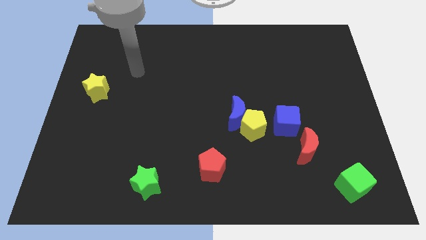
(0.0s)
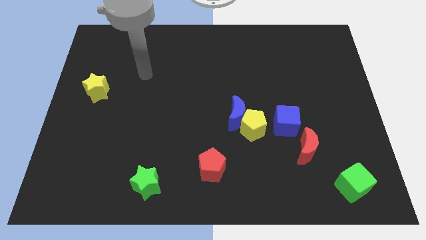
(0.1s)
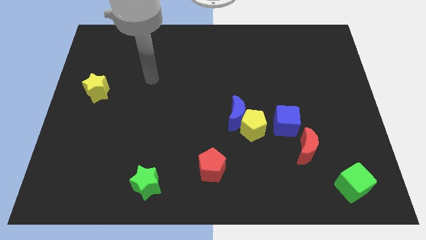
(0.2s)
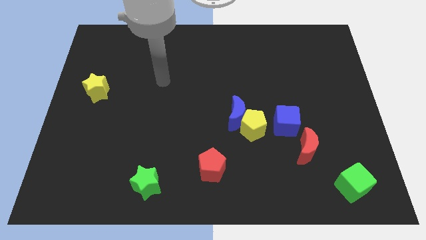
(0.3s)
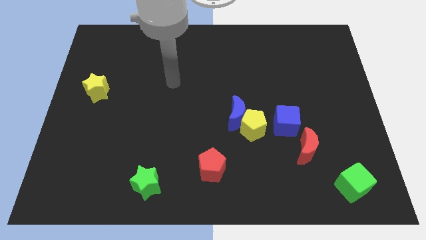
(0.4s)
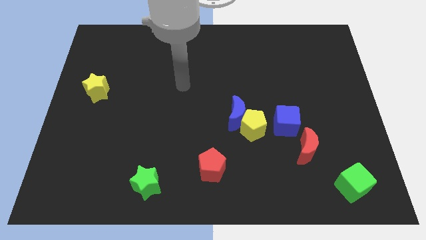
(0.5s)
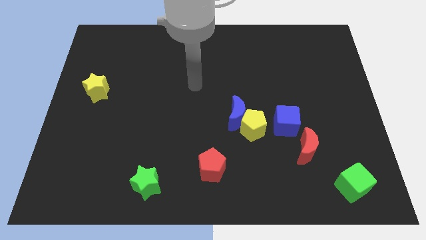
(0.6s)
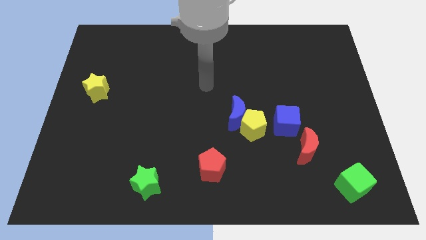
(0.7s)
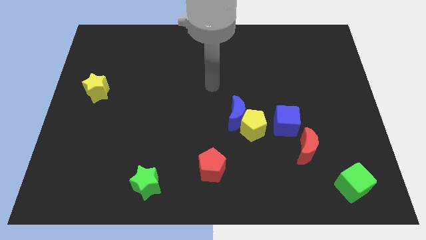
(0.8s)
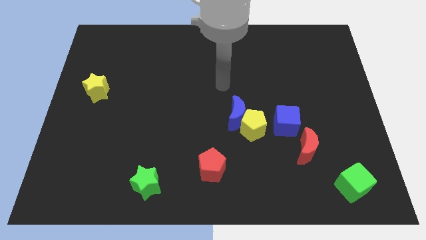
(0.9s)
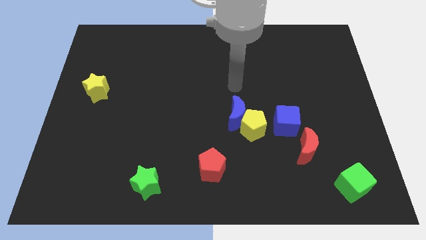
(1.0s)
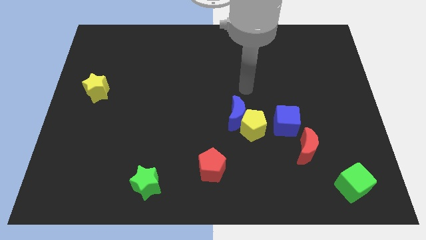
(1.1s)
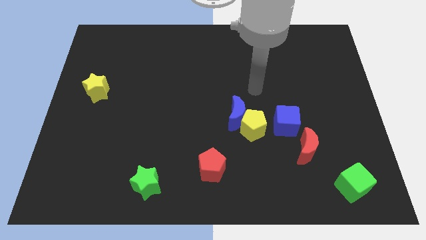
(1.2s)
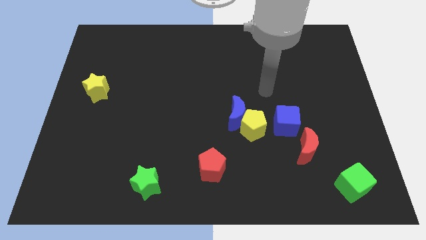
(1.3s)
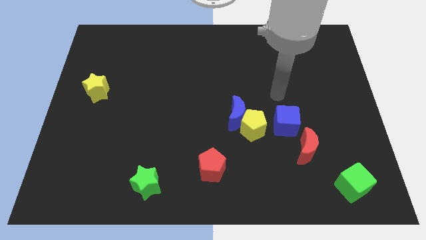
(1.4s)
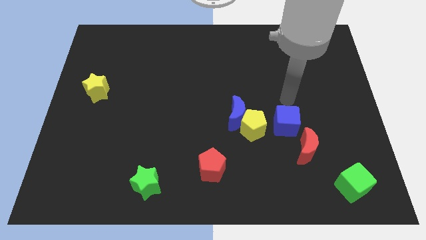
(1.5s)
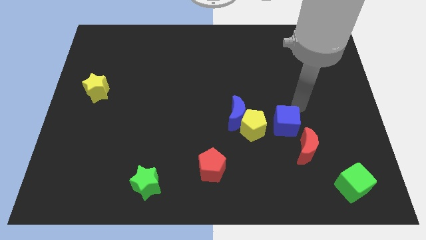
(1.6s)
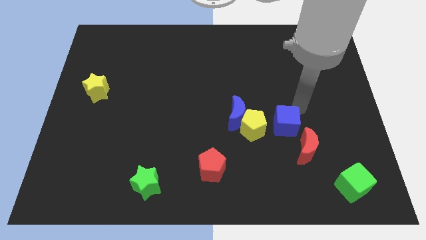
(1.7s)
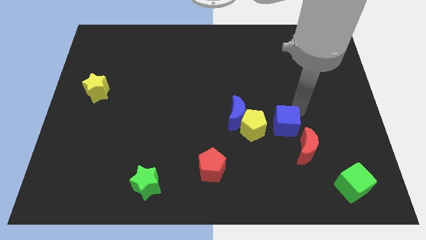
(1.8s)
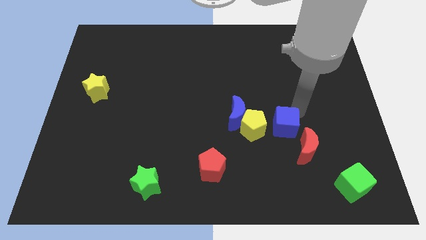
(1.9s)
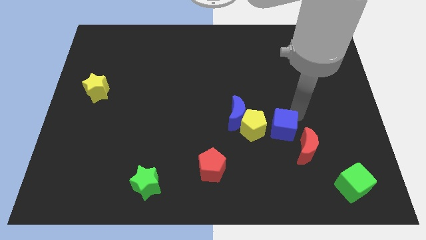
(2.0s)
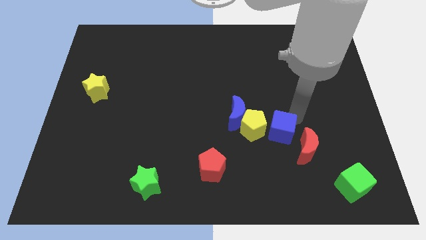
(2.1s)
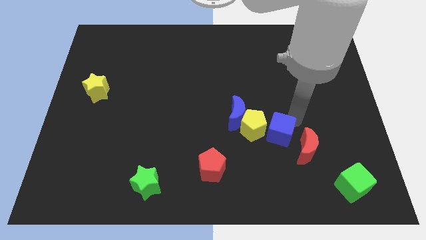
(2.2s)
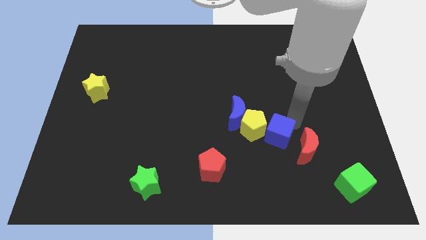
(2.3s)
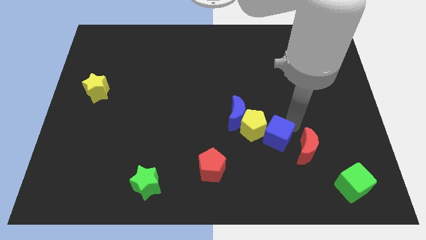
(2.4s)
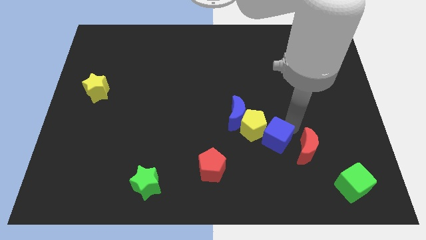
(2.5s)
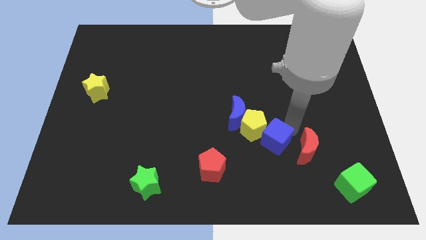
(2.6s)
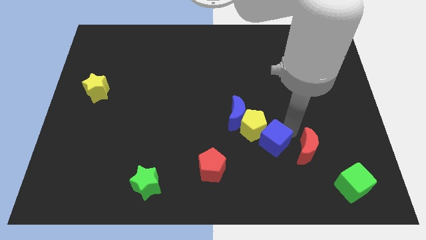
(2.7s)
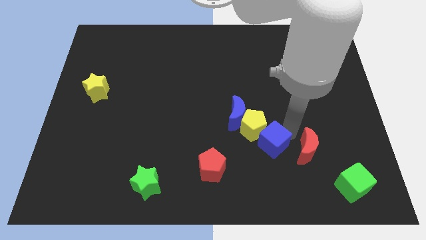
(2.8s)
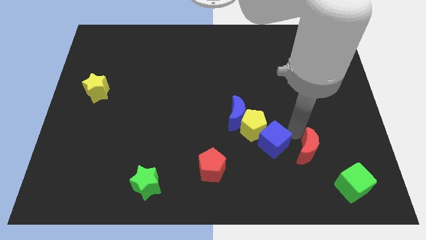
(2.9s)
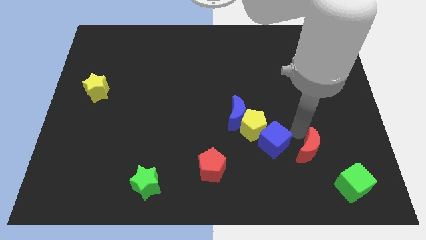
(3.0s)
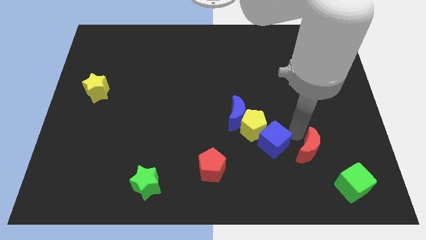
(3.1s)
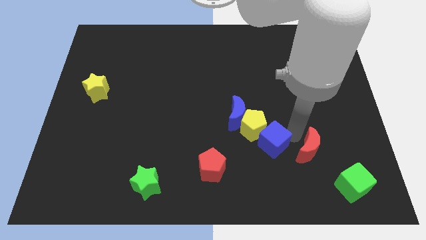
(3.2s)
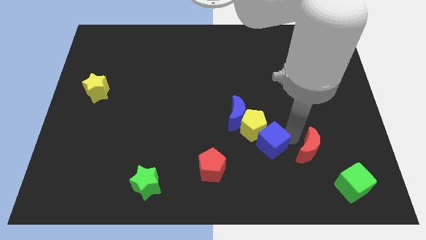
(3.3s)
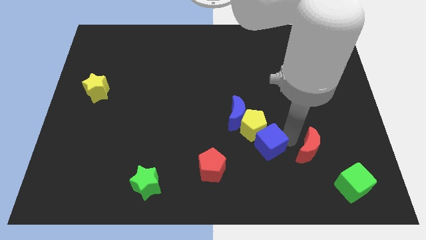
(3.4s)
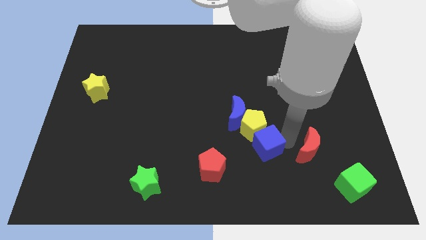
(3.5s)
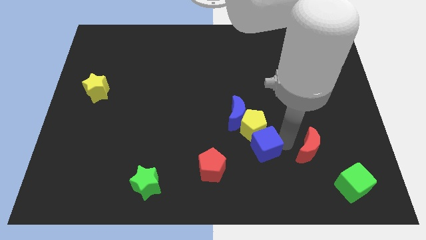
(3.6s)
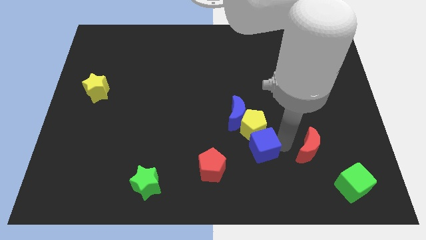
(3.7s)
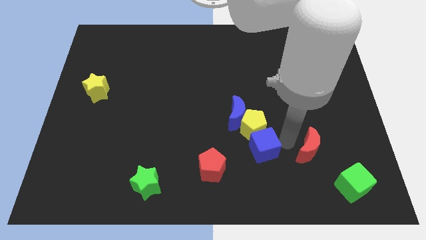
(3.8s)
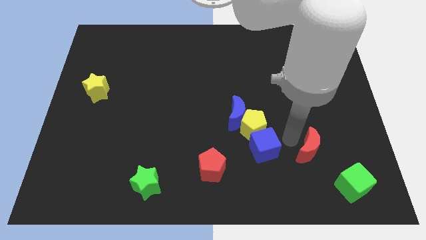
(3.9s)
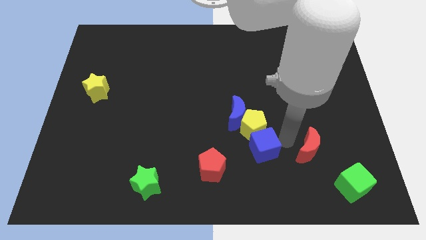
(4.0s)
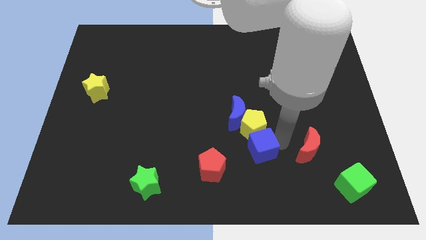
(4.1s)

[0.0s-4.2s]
push the blue cube to the bottom left side of the yellow pentagon

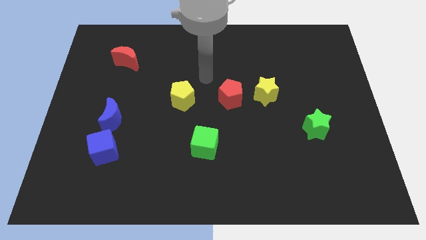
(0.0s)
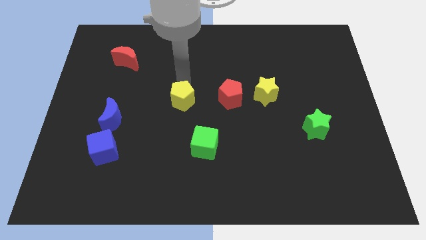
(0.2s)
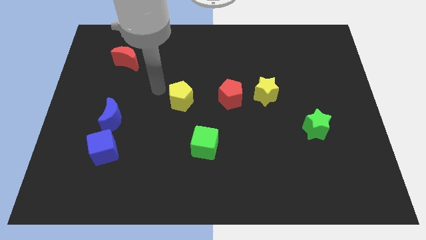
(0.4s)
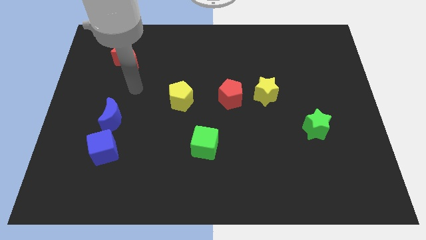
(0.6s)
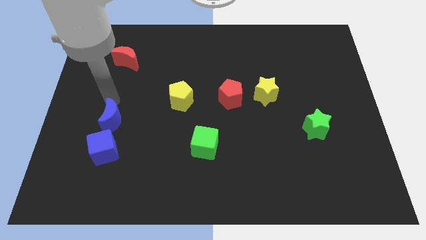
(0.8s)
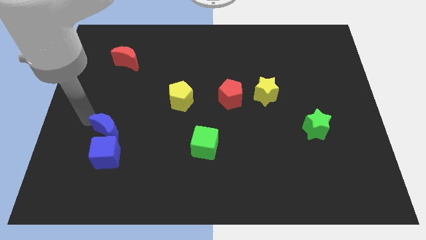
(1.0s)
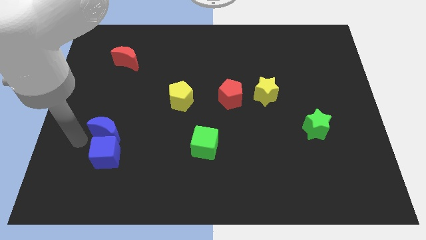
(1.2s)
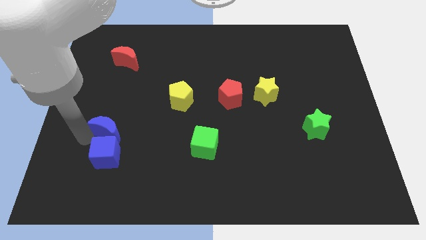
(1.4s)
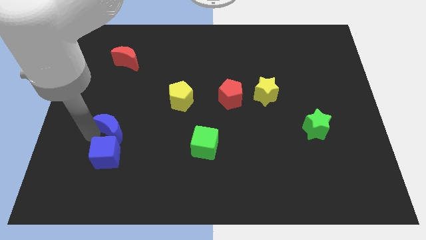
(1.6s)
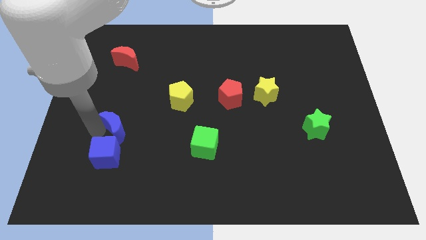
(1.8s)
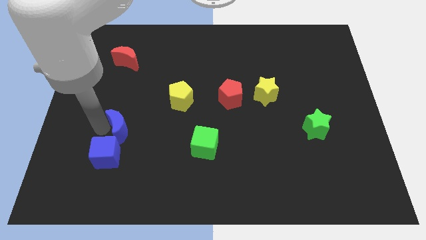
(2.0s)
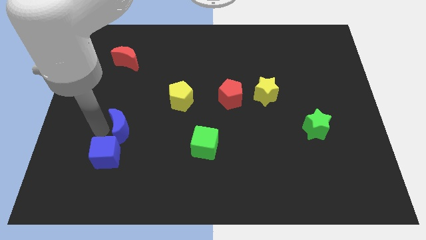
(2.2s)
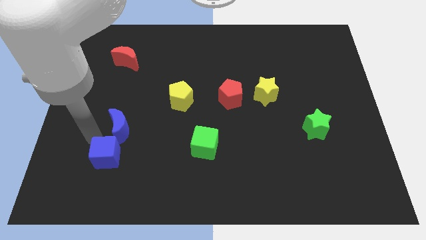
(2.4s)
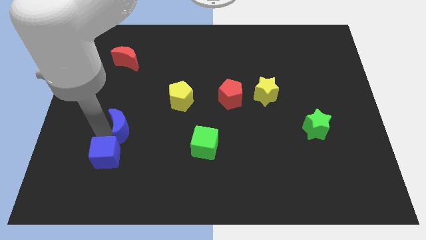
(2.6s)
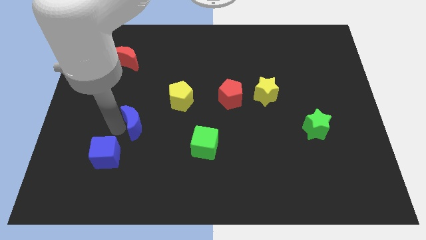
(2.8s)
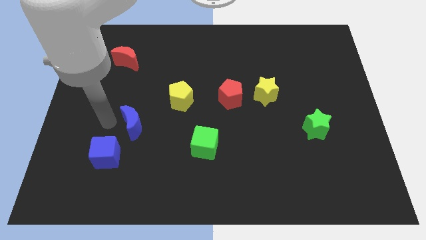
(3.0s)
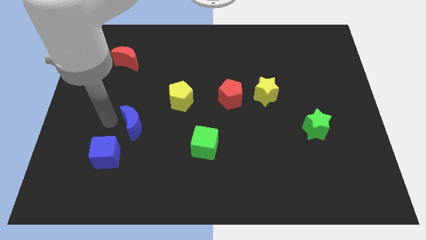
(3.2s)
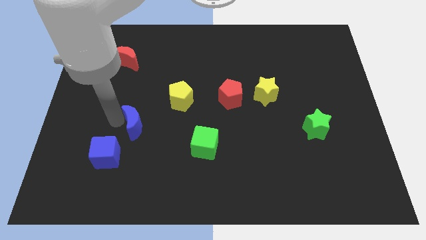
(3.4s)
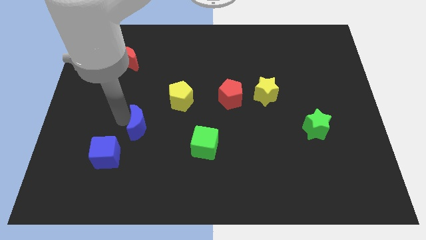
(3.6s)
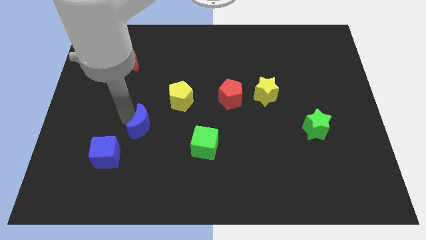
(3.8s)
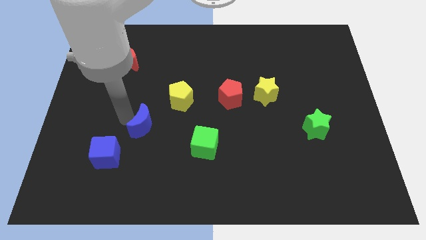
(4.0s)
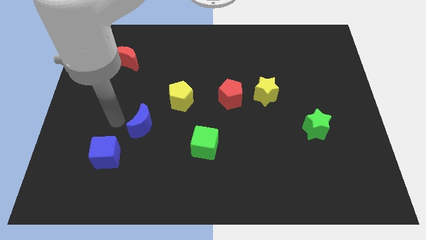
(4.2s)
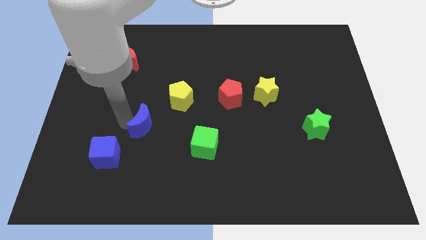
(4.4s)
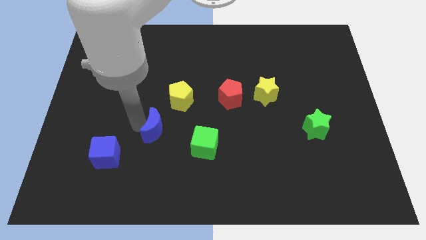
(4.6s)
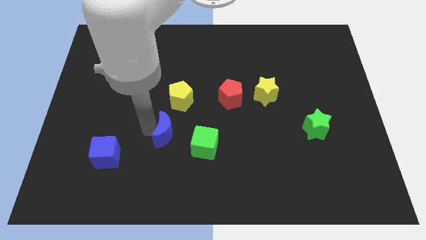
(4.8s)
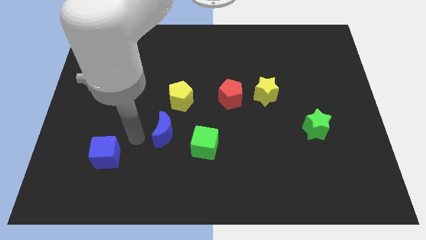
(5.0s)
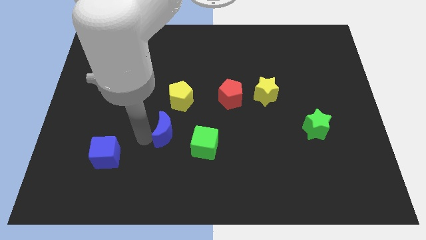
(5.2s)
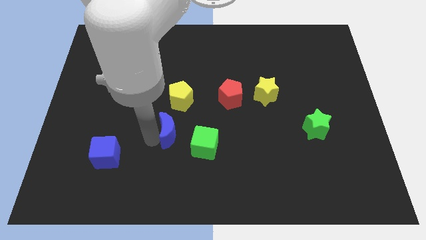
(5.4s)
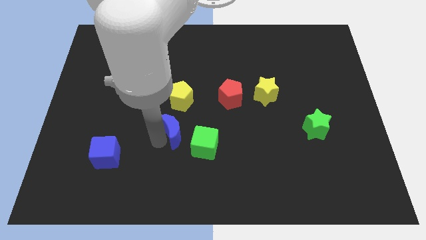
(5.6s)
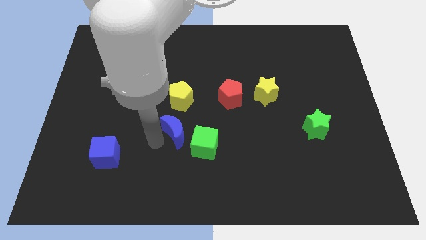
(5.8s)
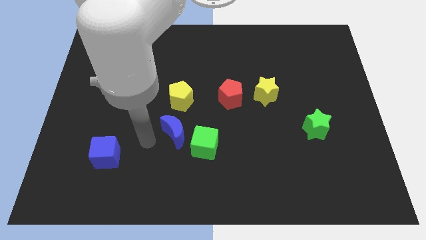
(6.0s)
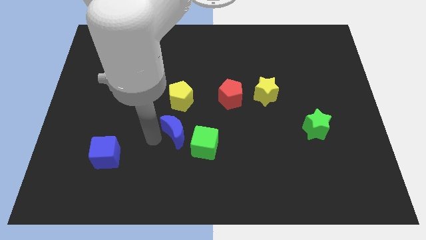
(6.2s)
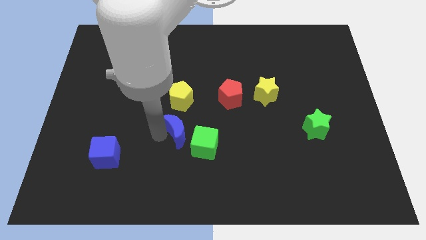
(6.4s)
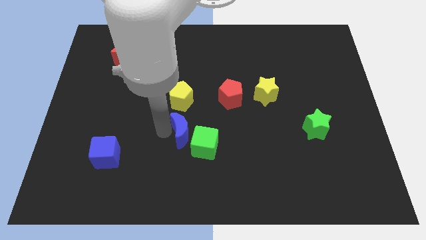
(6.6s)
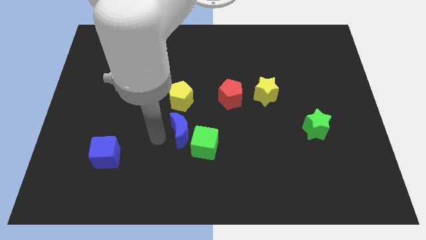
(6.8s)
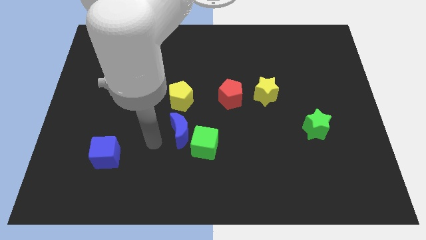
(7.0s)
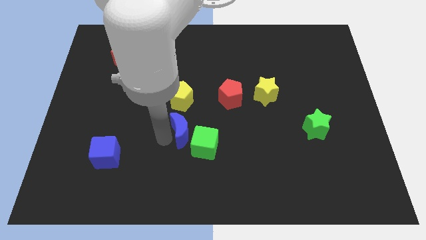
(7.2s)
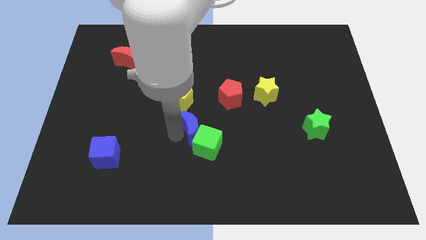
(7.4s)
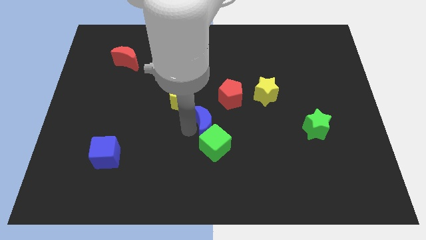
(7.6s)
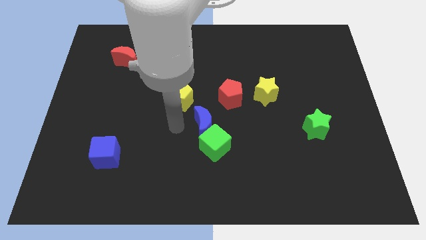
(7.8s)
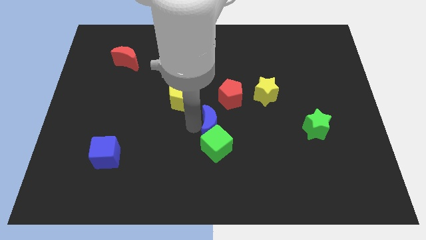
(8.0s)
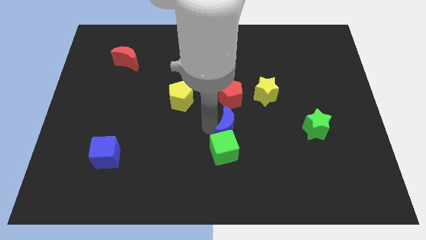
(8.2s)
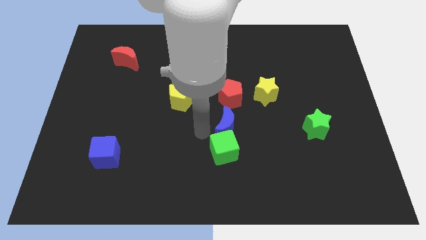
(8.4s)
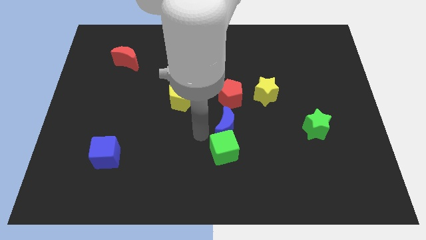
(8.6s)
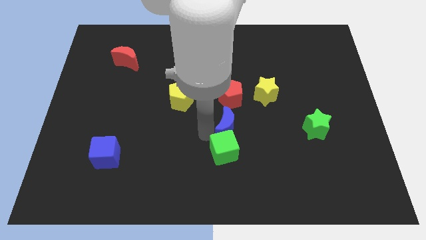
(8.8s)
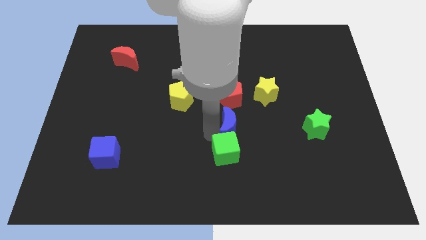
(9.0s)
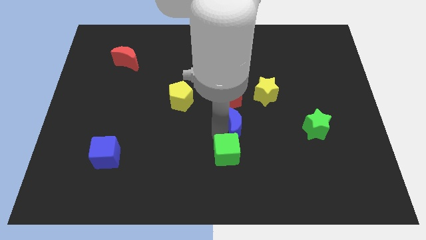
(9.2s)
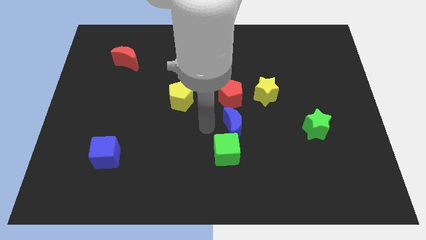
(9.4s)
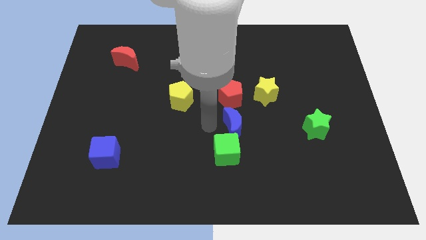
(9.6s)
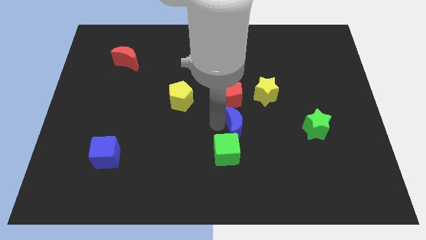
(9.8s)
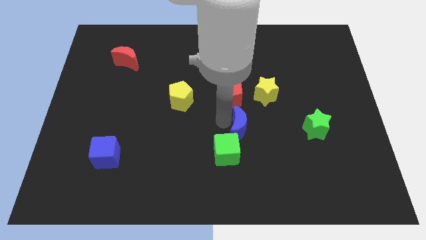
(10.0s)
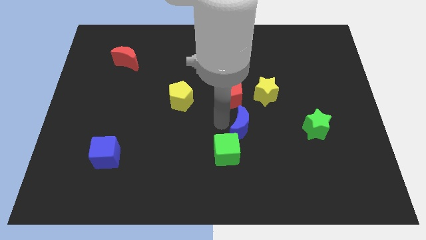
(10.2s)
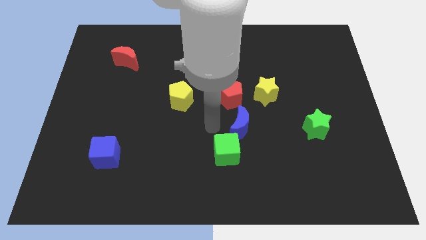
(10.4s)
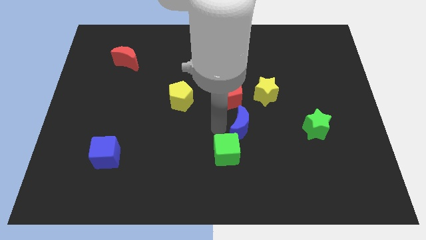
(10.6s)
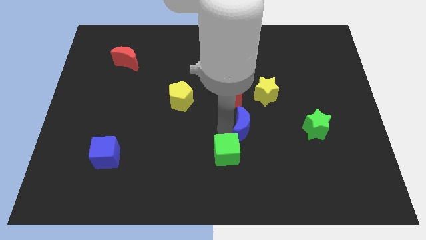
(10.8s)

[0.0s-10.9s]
move the blue moon just left of the green star
